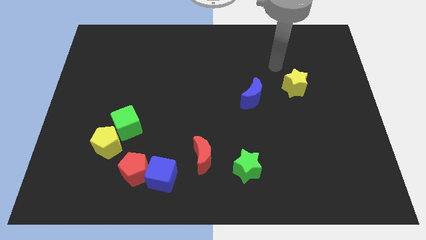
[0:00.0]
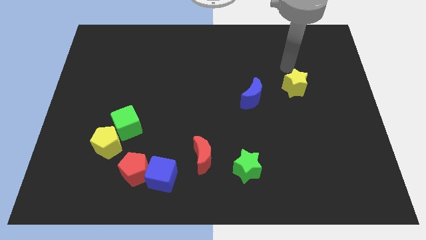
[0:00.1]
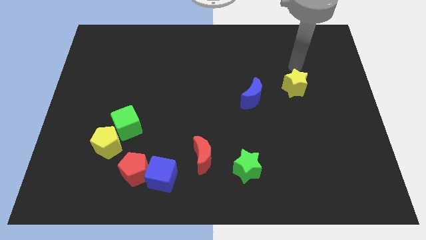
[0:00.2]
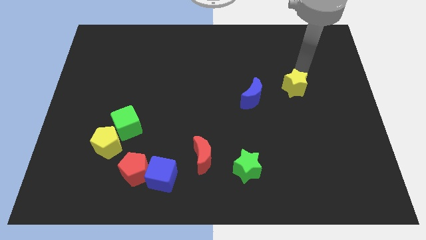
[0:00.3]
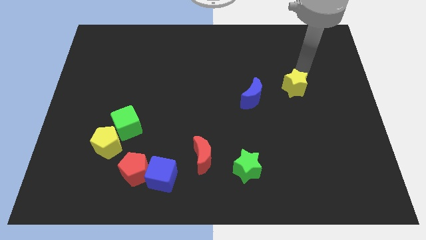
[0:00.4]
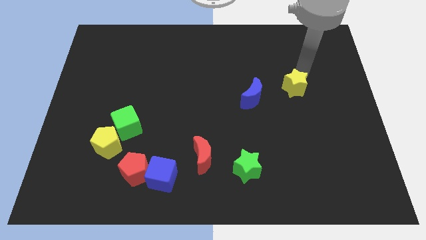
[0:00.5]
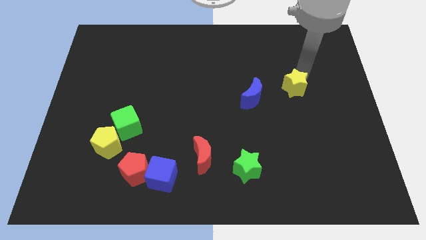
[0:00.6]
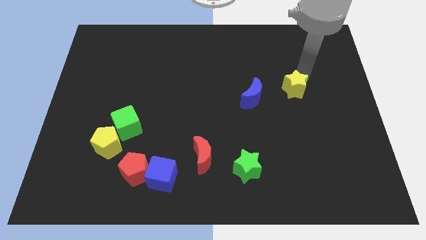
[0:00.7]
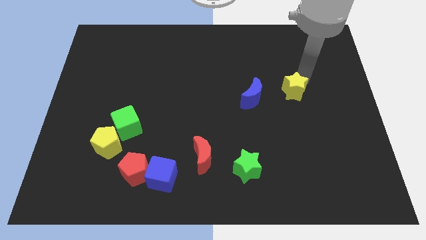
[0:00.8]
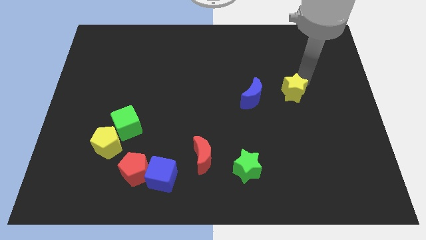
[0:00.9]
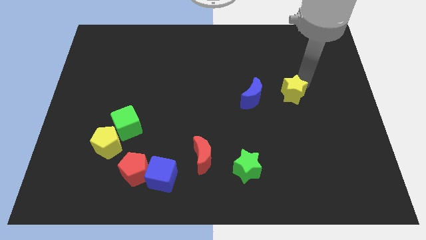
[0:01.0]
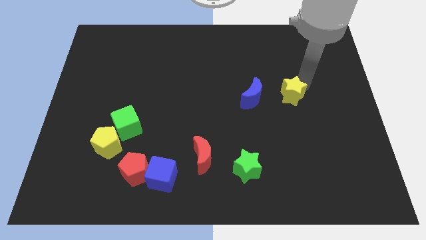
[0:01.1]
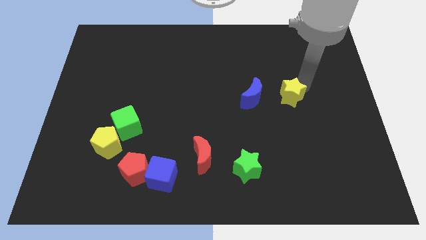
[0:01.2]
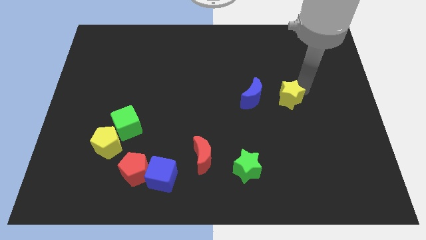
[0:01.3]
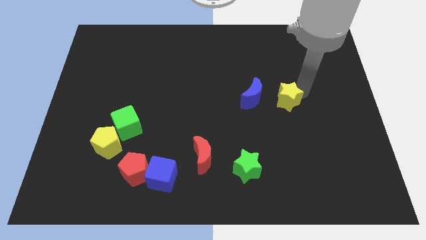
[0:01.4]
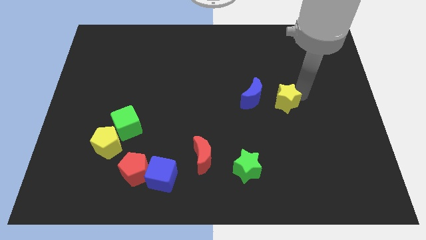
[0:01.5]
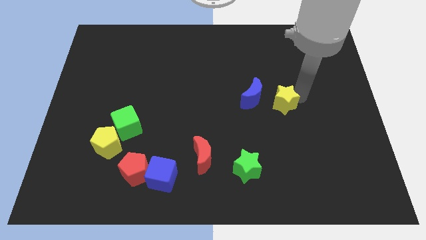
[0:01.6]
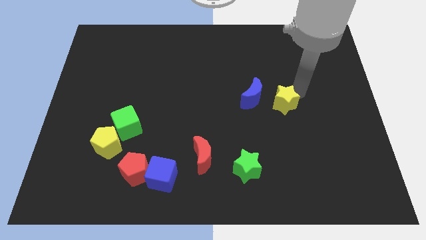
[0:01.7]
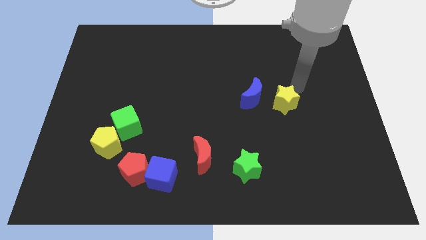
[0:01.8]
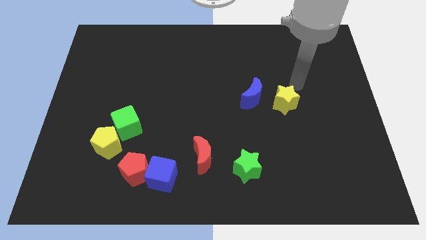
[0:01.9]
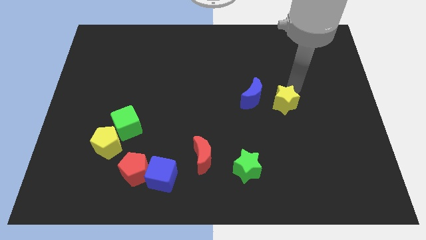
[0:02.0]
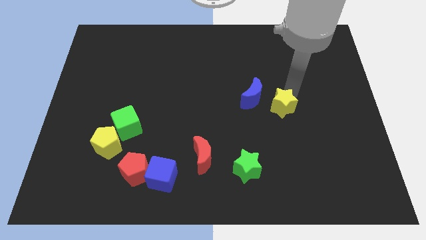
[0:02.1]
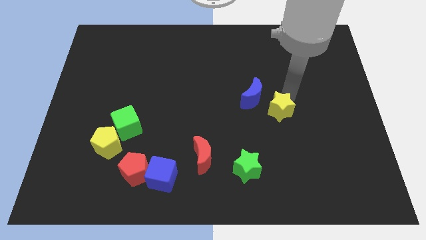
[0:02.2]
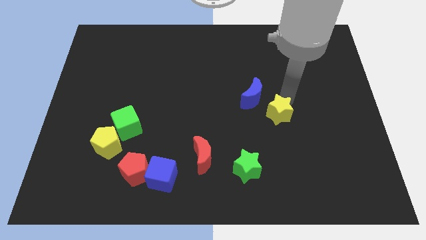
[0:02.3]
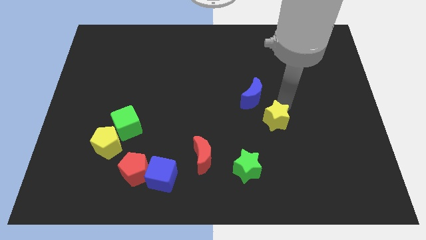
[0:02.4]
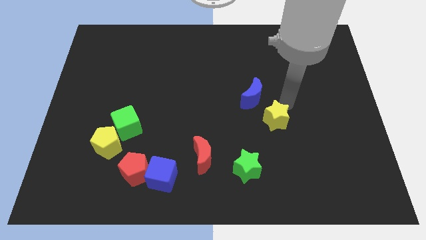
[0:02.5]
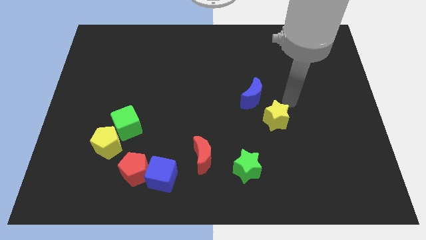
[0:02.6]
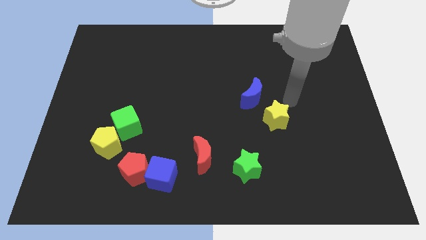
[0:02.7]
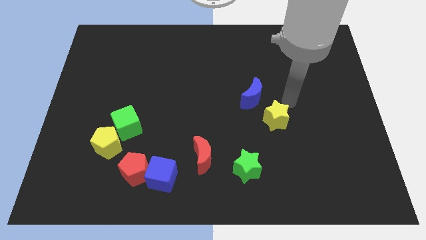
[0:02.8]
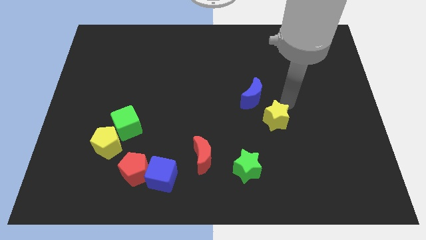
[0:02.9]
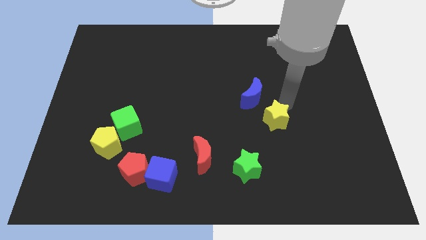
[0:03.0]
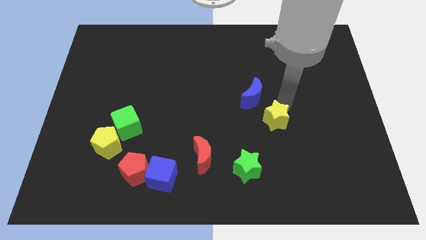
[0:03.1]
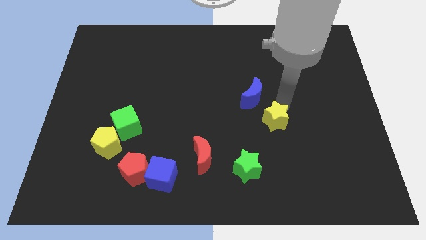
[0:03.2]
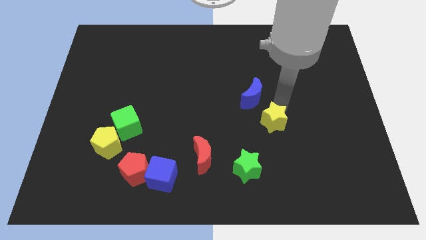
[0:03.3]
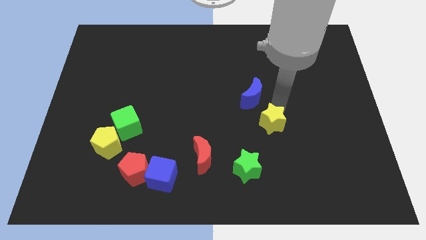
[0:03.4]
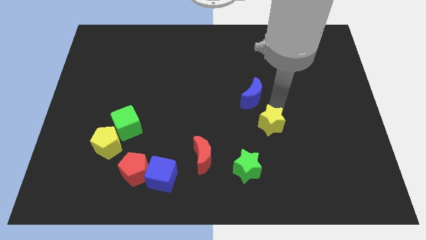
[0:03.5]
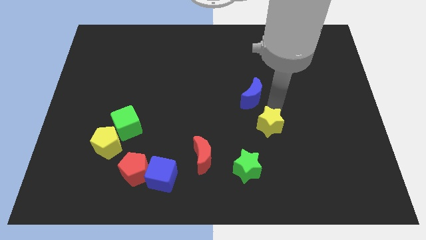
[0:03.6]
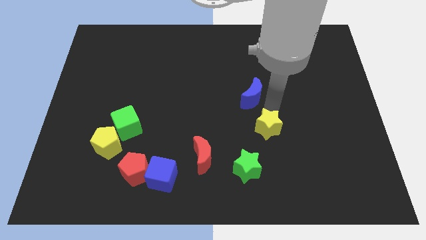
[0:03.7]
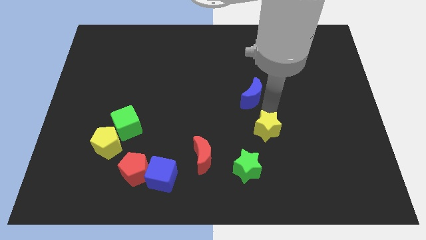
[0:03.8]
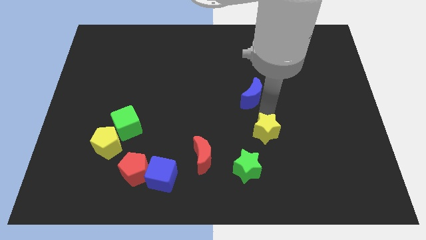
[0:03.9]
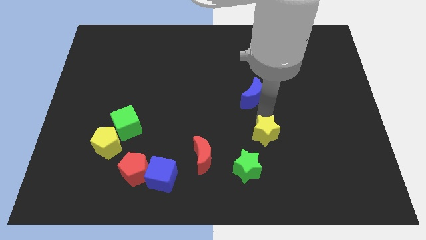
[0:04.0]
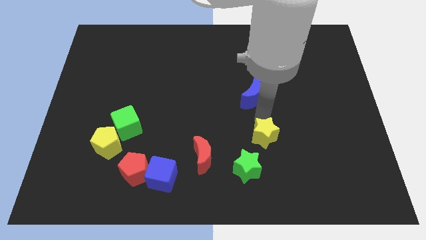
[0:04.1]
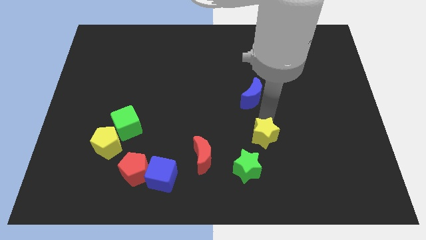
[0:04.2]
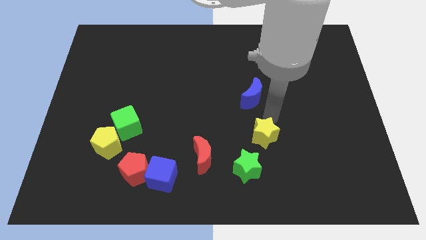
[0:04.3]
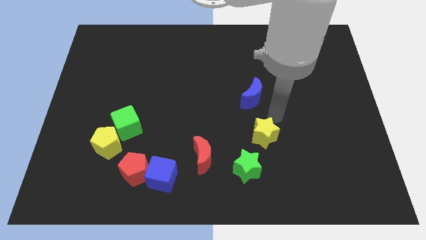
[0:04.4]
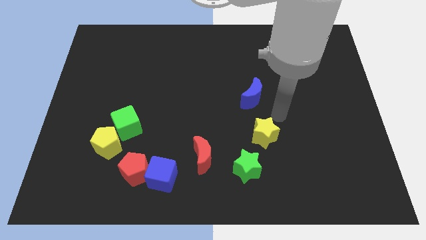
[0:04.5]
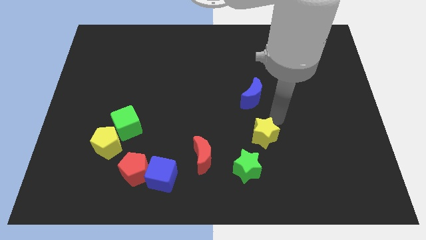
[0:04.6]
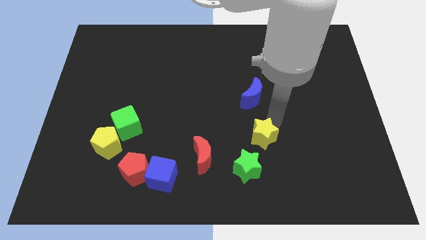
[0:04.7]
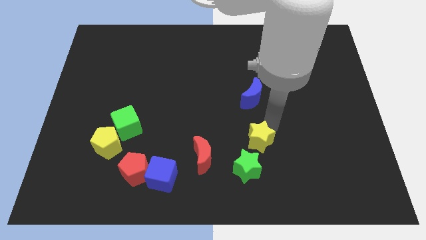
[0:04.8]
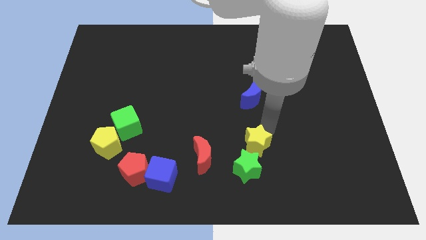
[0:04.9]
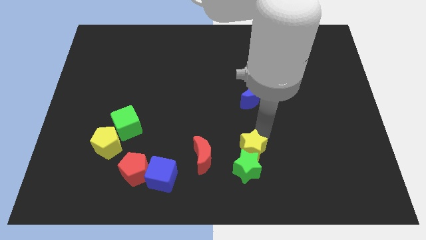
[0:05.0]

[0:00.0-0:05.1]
slide the yellow star next to the green star

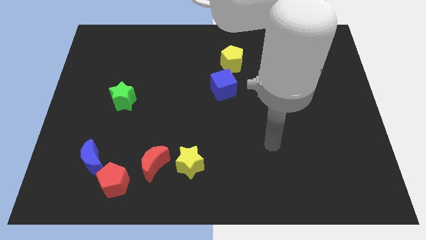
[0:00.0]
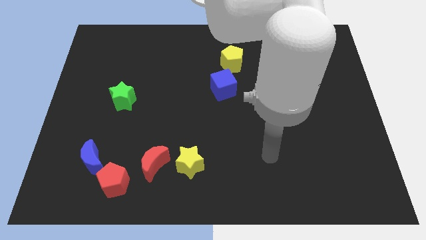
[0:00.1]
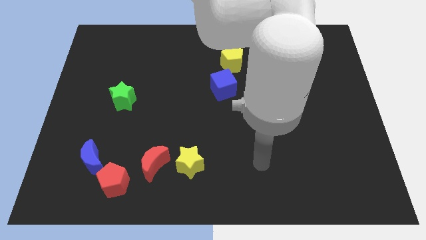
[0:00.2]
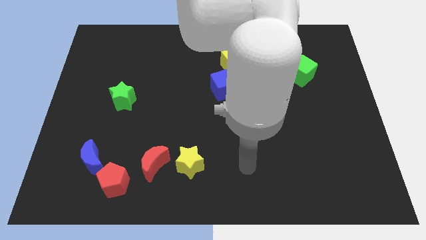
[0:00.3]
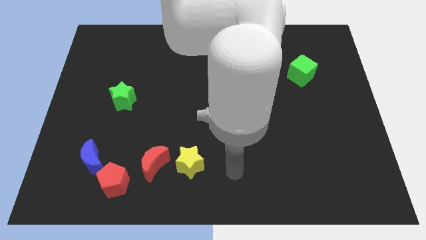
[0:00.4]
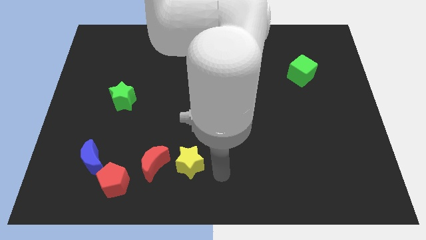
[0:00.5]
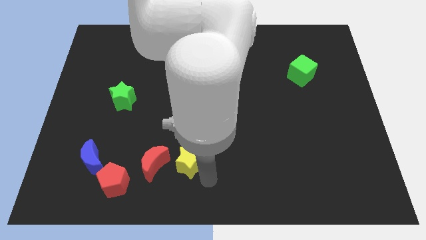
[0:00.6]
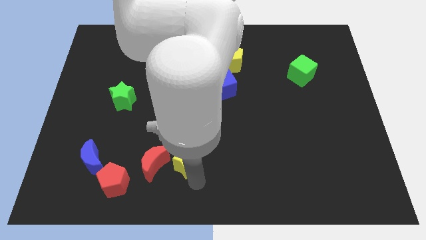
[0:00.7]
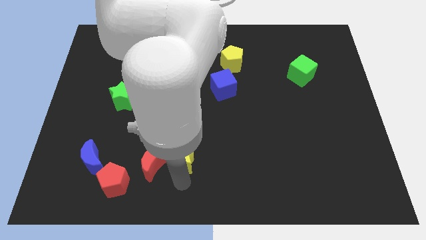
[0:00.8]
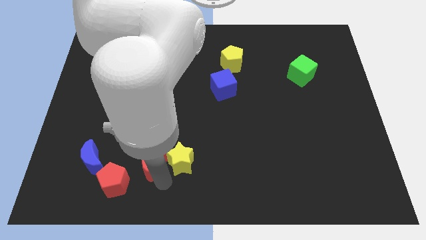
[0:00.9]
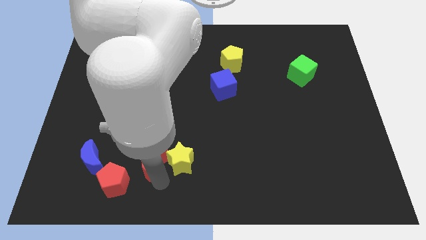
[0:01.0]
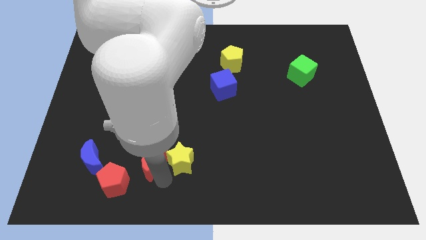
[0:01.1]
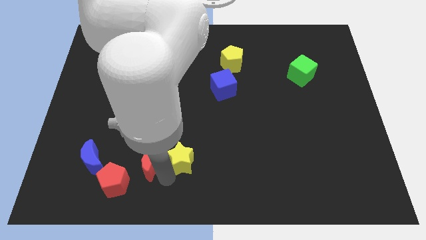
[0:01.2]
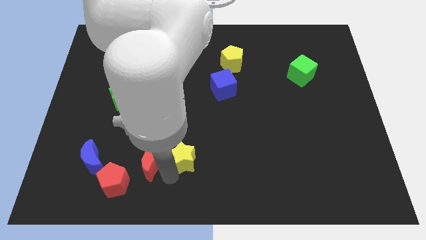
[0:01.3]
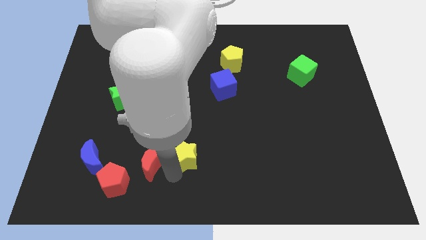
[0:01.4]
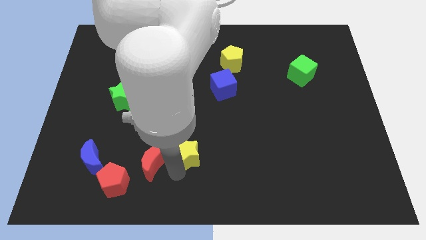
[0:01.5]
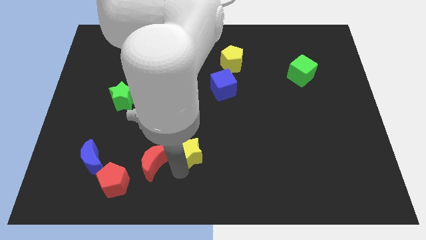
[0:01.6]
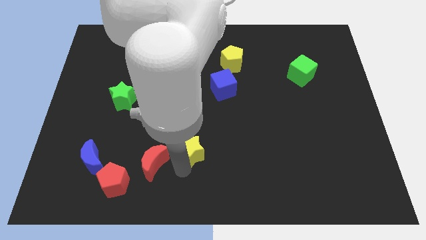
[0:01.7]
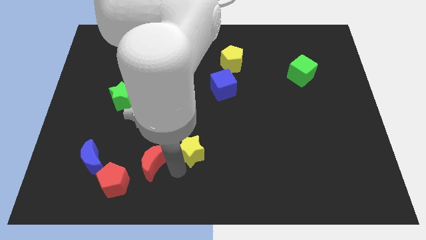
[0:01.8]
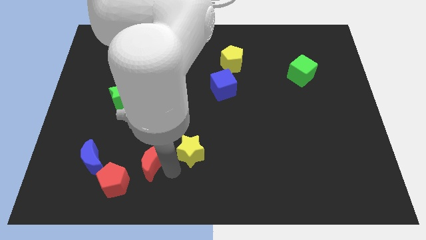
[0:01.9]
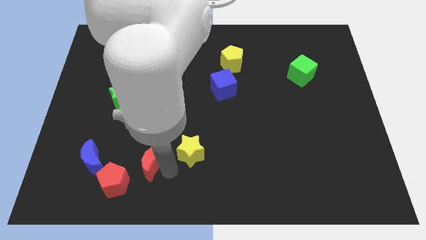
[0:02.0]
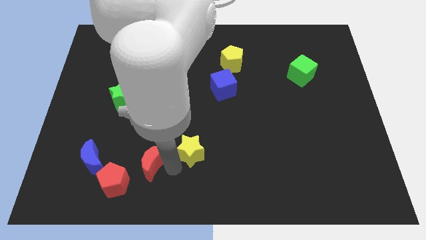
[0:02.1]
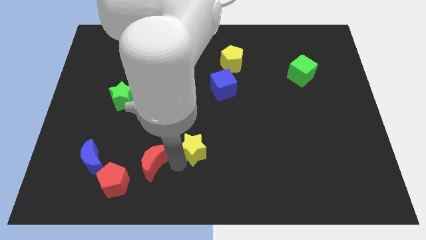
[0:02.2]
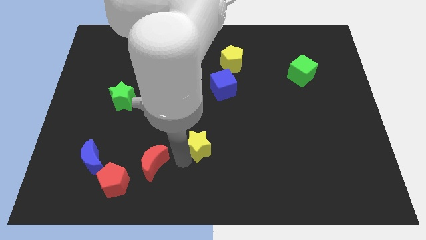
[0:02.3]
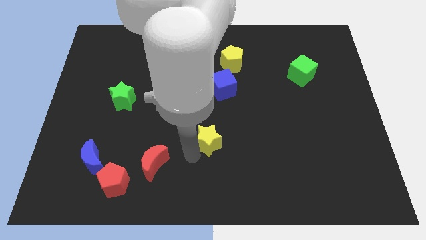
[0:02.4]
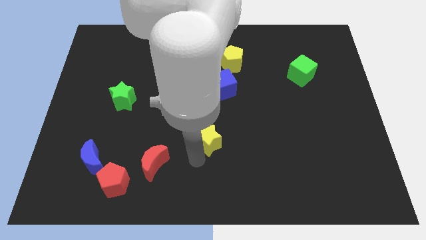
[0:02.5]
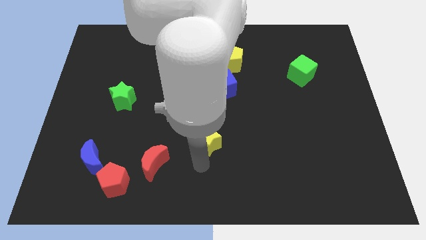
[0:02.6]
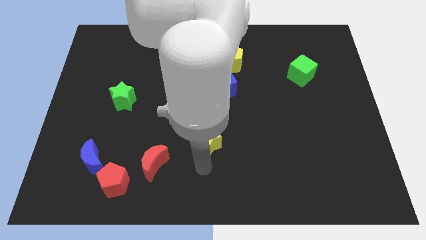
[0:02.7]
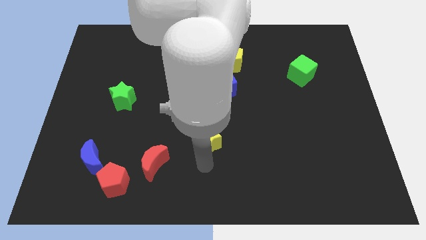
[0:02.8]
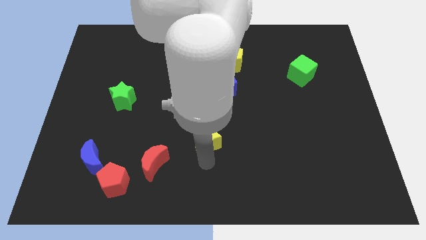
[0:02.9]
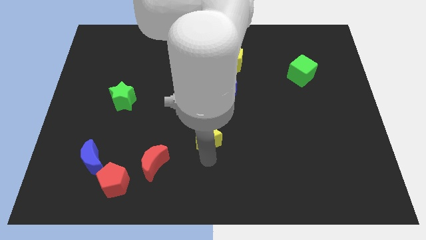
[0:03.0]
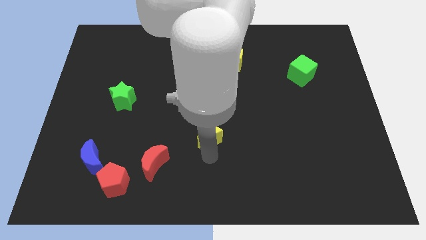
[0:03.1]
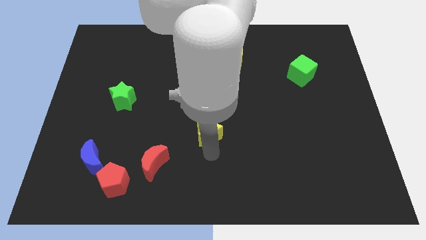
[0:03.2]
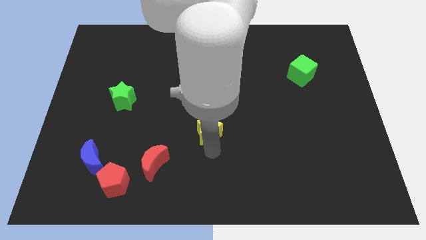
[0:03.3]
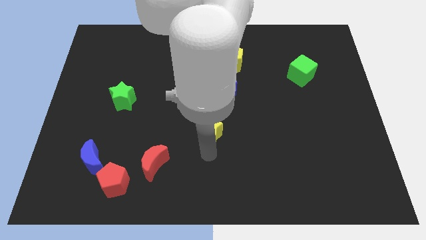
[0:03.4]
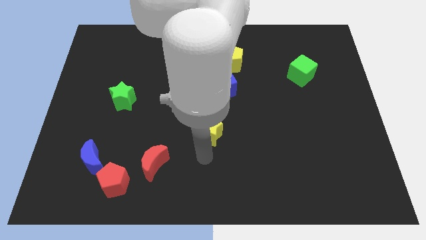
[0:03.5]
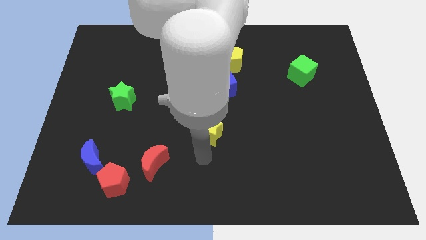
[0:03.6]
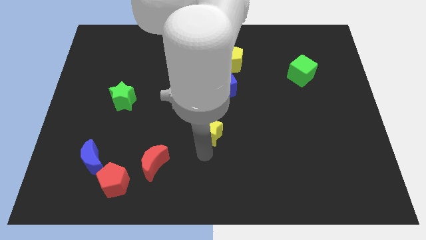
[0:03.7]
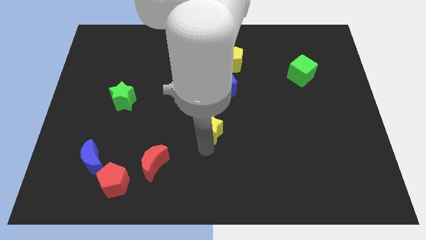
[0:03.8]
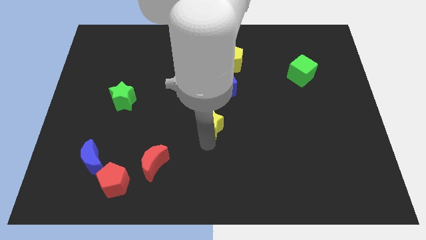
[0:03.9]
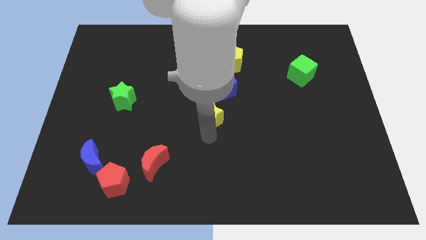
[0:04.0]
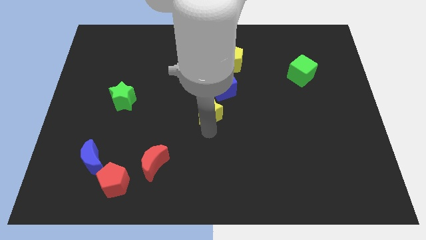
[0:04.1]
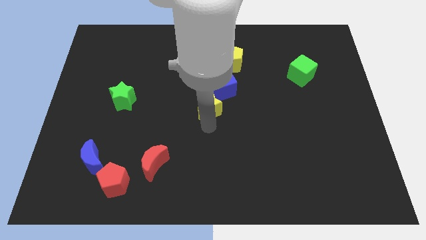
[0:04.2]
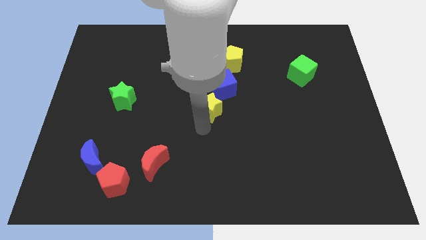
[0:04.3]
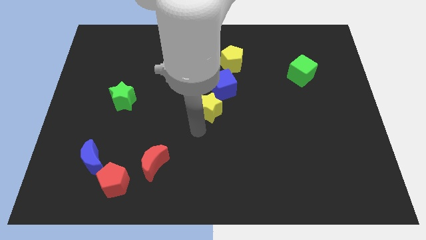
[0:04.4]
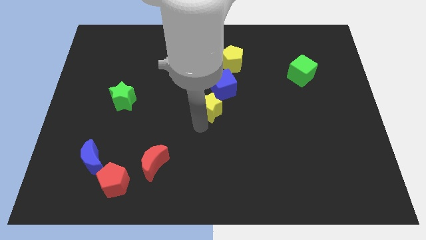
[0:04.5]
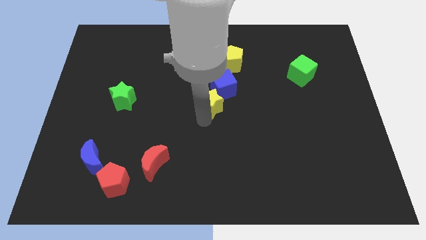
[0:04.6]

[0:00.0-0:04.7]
push the yellow star next to the blue cube
